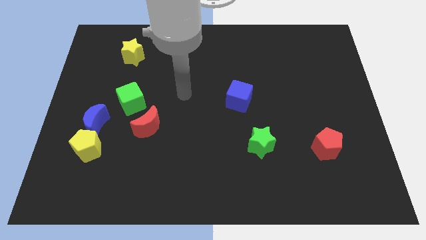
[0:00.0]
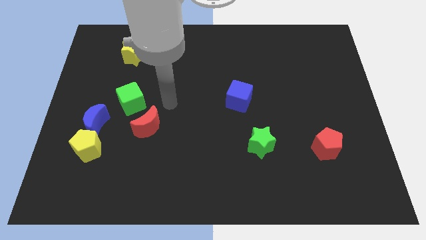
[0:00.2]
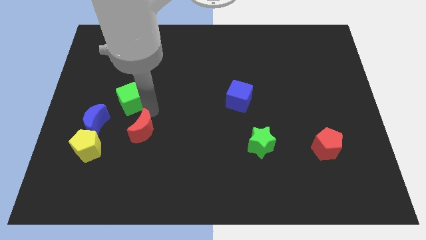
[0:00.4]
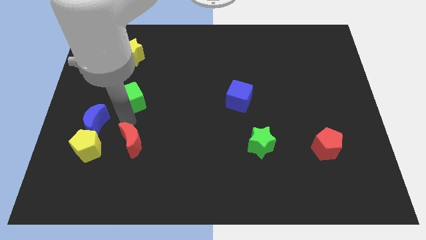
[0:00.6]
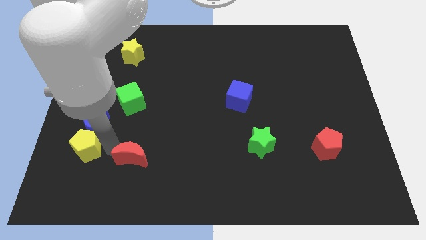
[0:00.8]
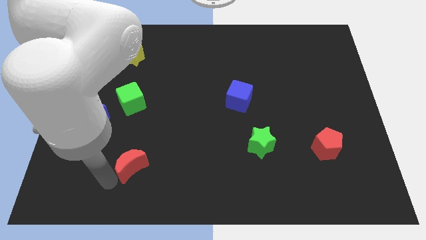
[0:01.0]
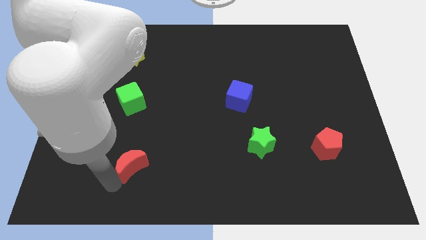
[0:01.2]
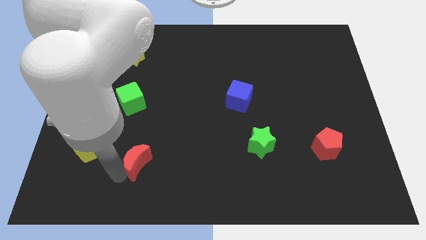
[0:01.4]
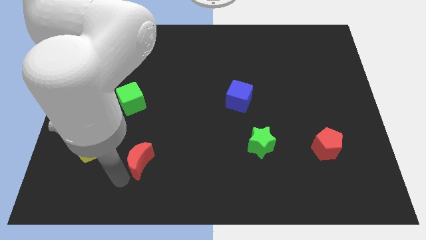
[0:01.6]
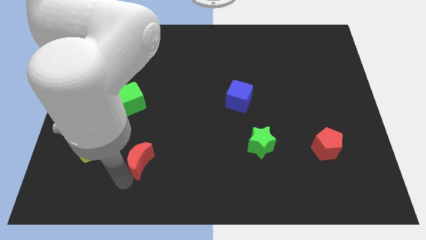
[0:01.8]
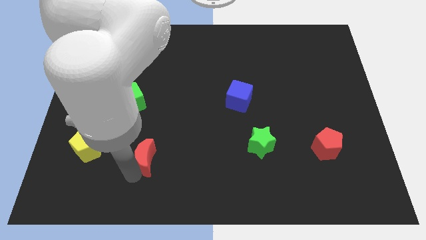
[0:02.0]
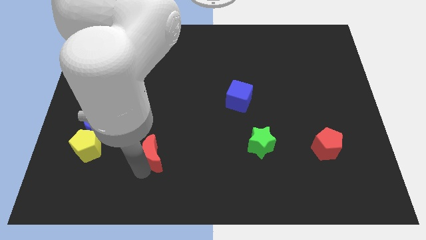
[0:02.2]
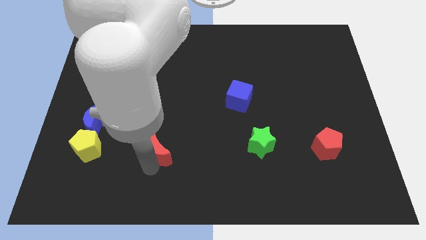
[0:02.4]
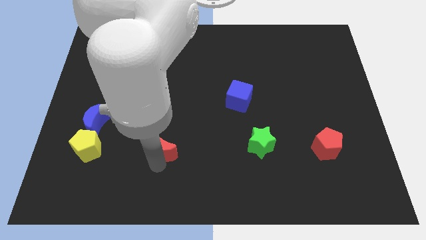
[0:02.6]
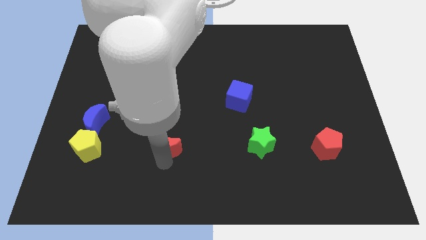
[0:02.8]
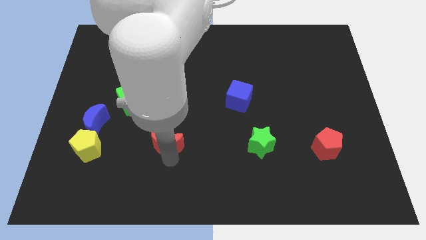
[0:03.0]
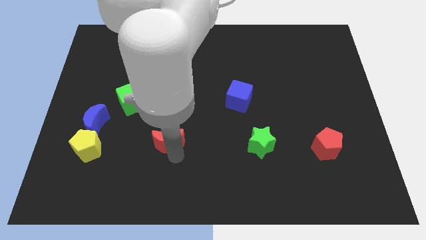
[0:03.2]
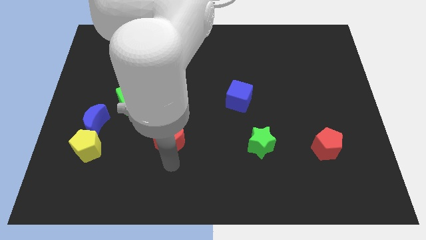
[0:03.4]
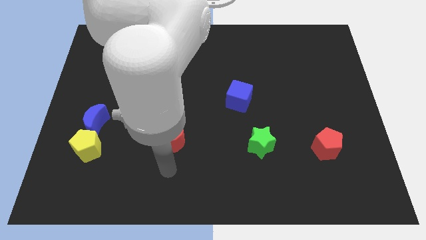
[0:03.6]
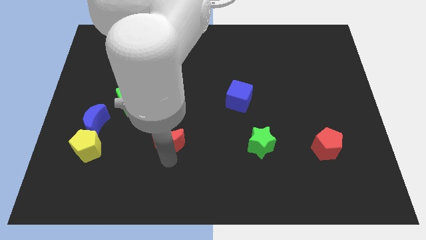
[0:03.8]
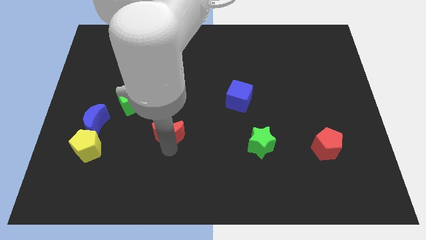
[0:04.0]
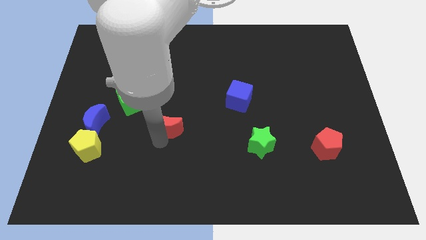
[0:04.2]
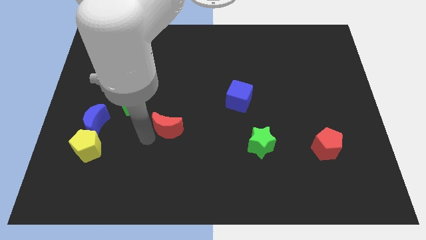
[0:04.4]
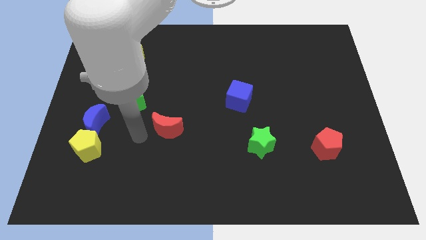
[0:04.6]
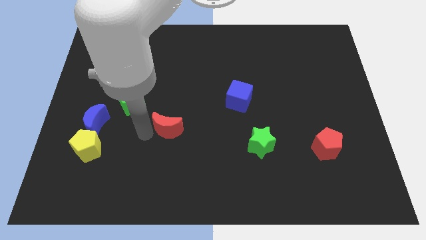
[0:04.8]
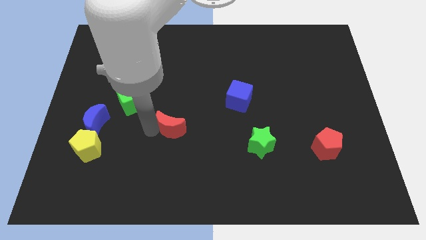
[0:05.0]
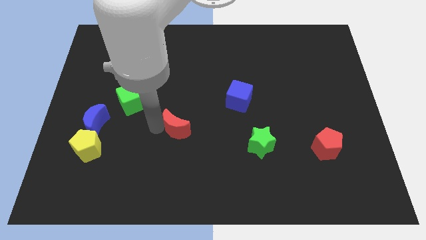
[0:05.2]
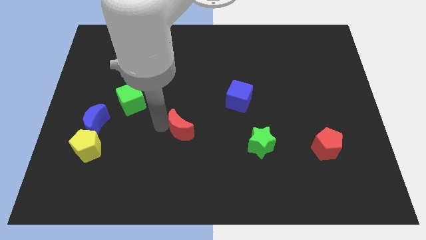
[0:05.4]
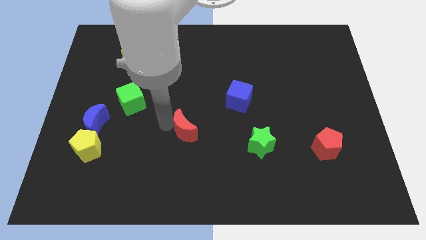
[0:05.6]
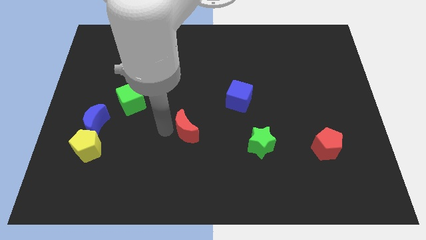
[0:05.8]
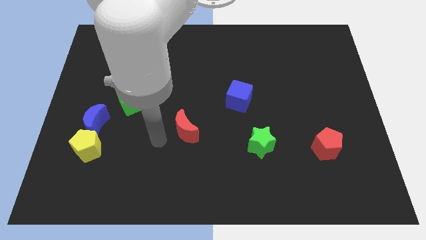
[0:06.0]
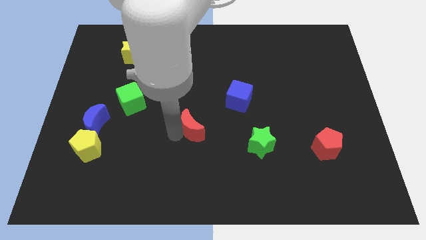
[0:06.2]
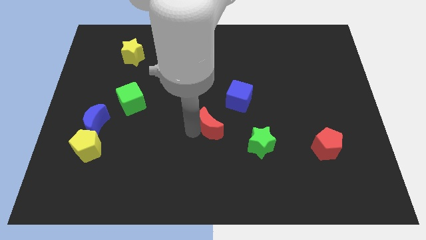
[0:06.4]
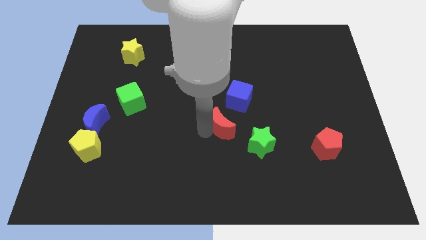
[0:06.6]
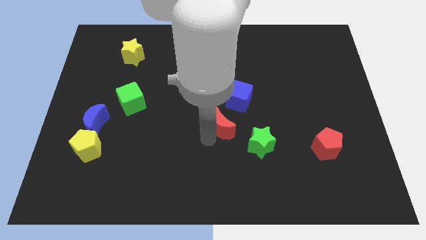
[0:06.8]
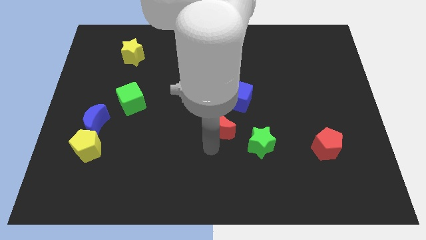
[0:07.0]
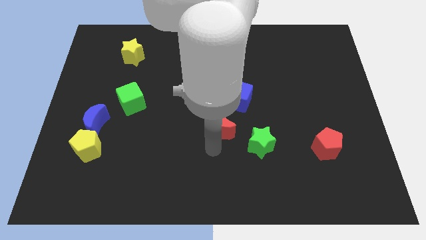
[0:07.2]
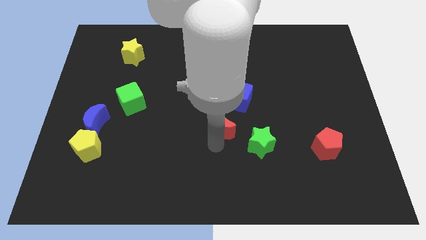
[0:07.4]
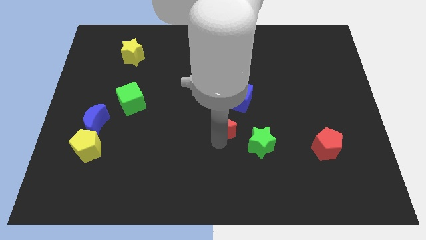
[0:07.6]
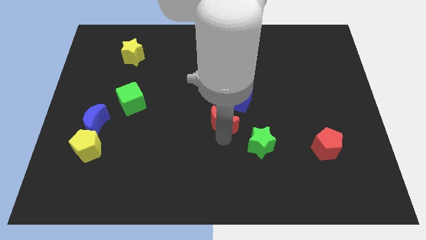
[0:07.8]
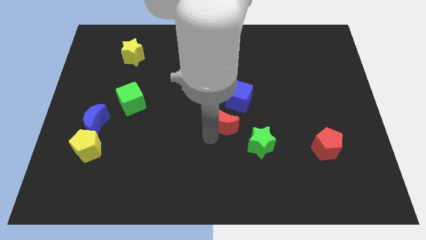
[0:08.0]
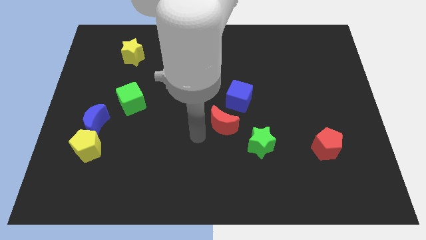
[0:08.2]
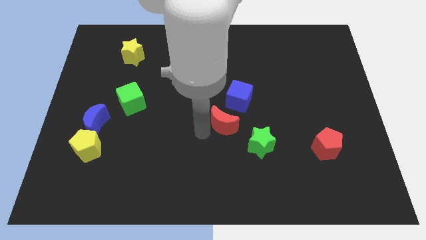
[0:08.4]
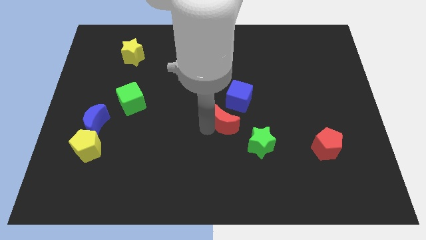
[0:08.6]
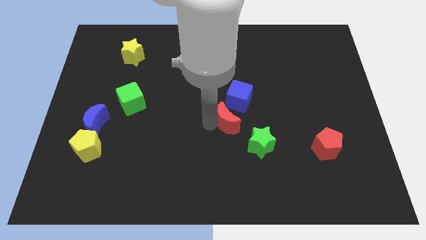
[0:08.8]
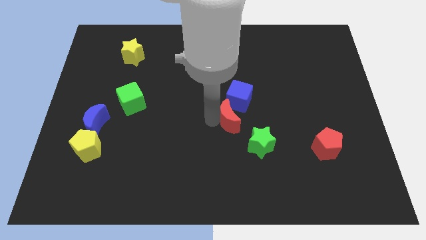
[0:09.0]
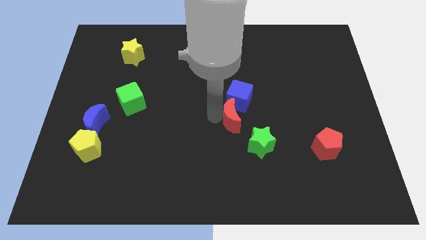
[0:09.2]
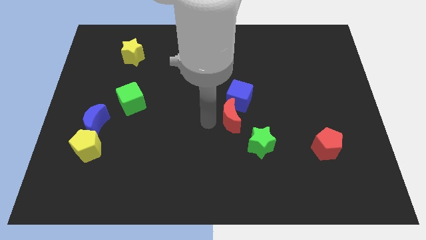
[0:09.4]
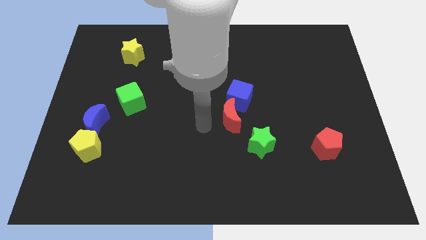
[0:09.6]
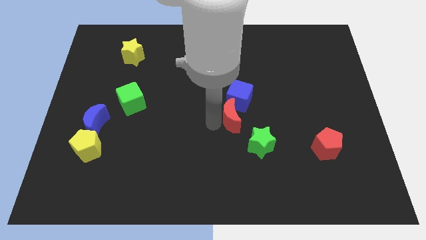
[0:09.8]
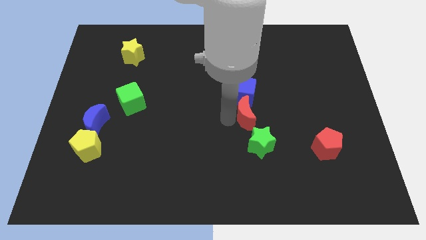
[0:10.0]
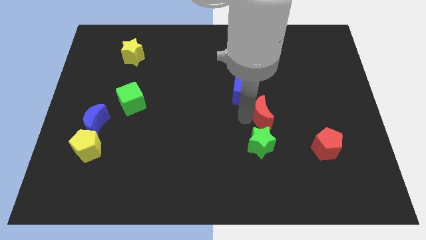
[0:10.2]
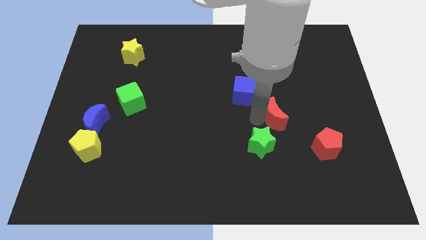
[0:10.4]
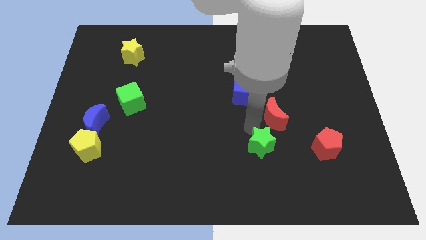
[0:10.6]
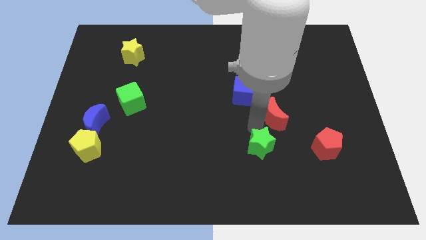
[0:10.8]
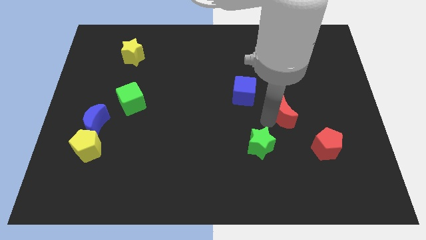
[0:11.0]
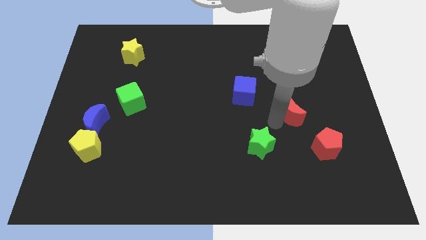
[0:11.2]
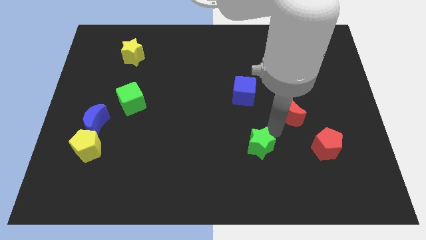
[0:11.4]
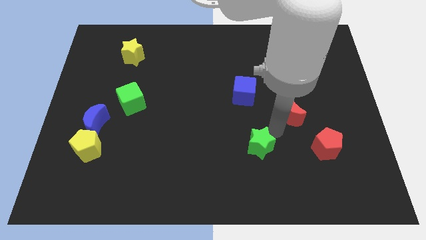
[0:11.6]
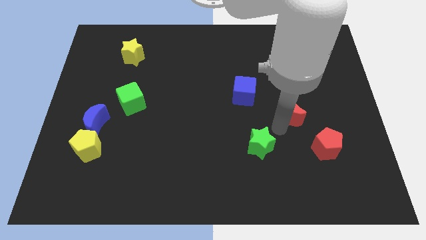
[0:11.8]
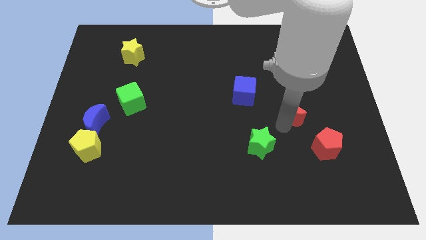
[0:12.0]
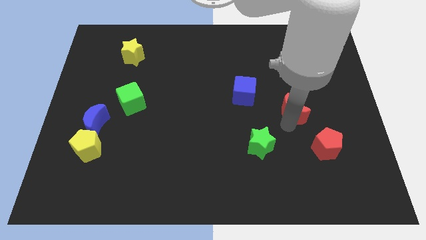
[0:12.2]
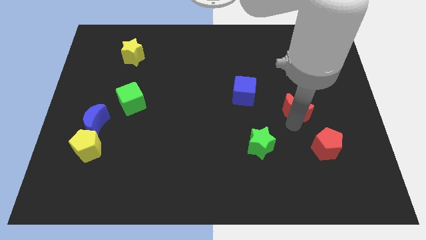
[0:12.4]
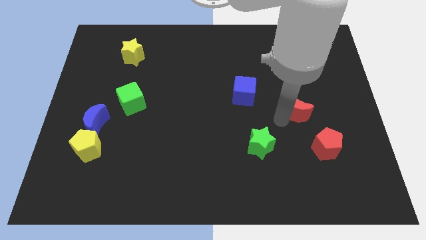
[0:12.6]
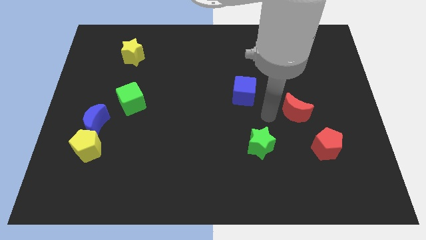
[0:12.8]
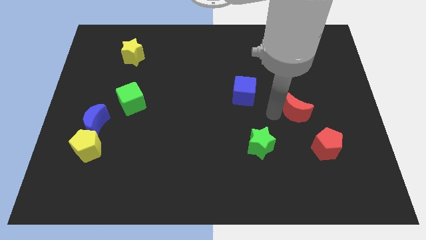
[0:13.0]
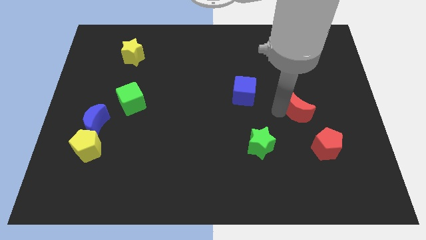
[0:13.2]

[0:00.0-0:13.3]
push the red moon to the top side of the red pentagon
